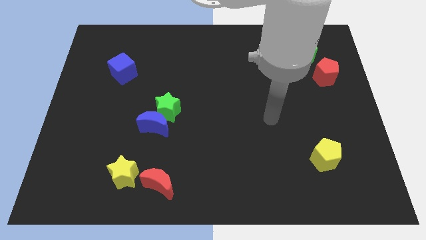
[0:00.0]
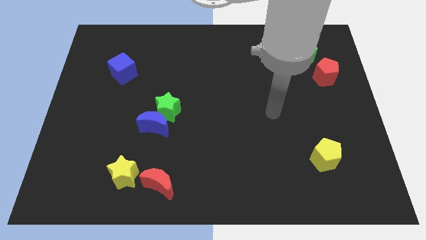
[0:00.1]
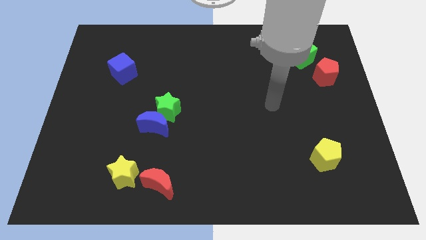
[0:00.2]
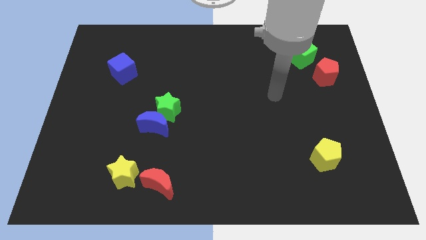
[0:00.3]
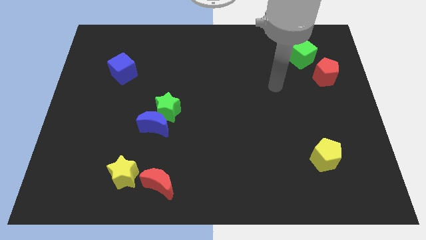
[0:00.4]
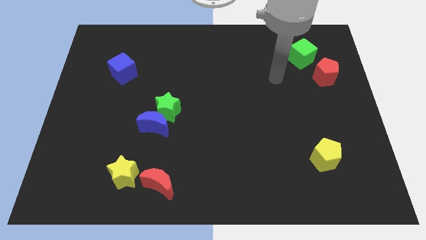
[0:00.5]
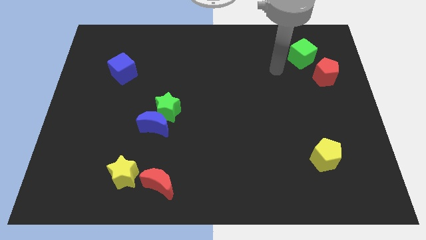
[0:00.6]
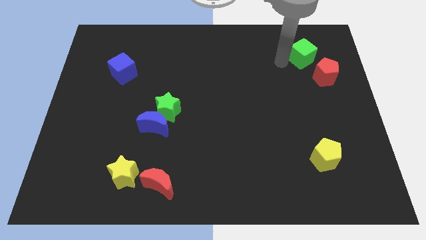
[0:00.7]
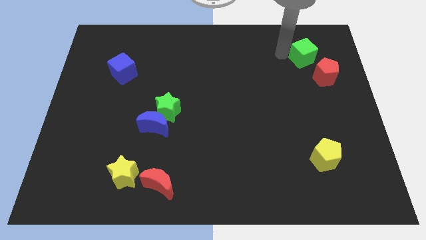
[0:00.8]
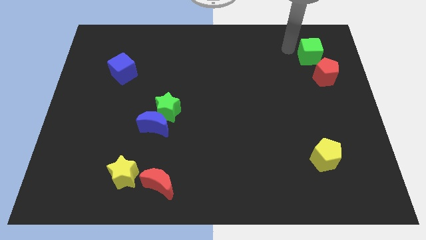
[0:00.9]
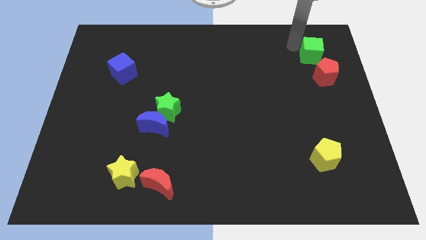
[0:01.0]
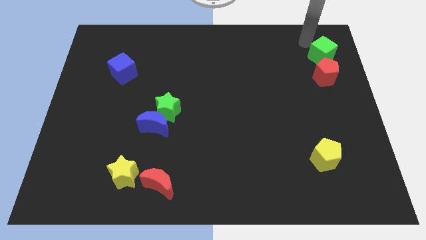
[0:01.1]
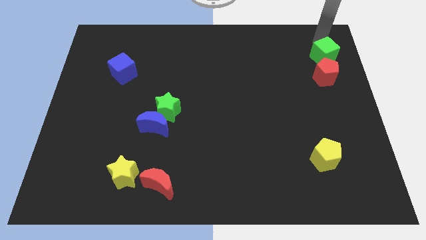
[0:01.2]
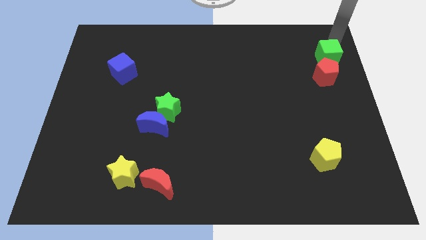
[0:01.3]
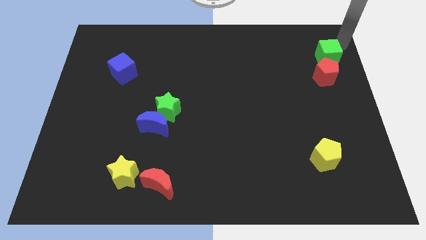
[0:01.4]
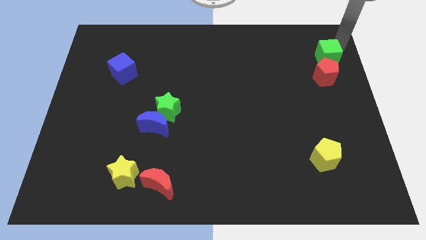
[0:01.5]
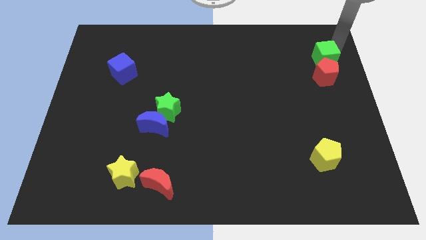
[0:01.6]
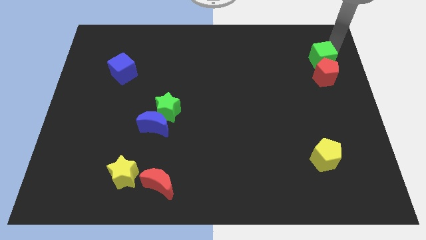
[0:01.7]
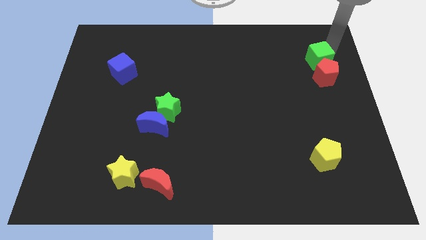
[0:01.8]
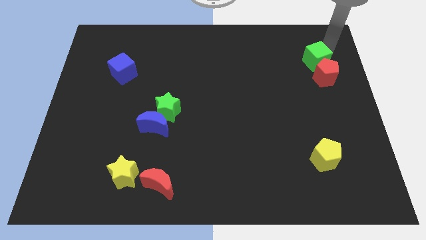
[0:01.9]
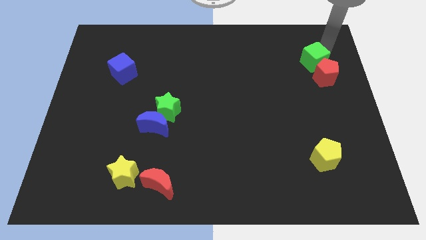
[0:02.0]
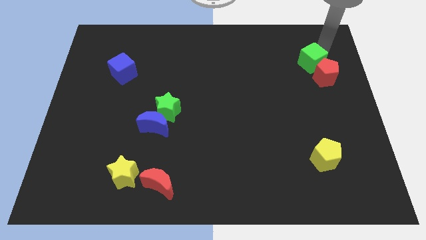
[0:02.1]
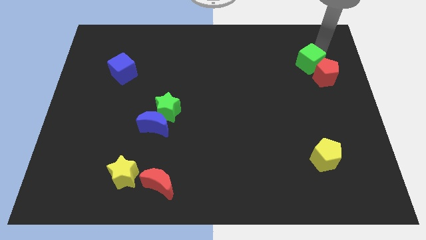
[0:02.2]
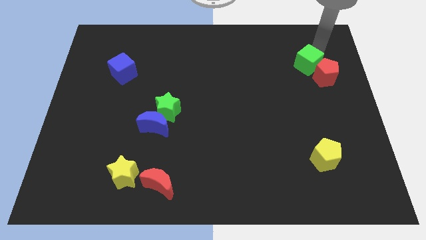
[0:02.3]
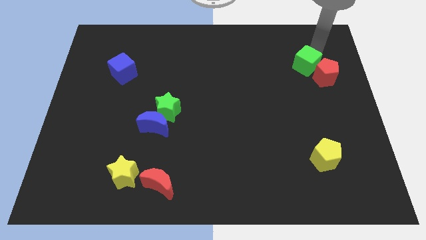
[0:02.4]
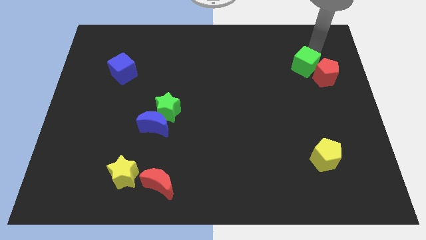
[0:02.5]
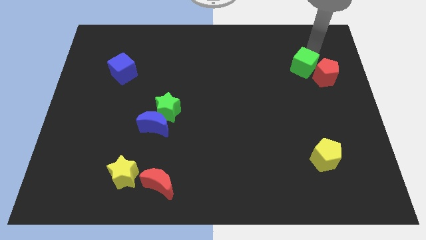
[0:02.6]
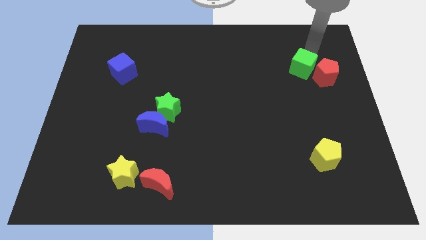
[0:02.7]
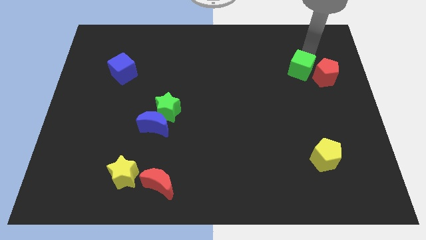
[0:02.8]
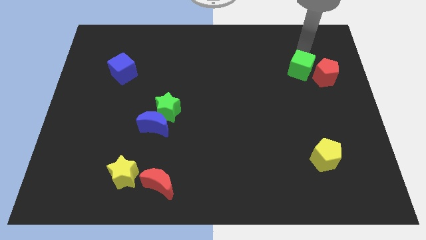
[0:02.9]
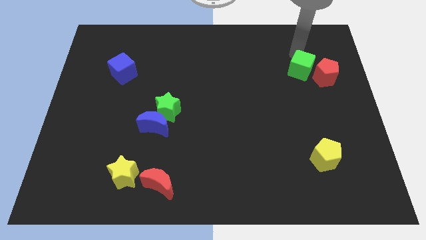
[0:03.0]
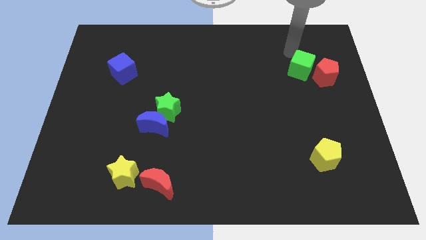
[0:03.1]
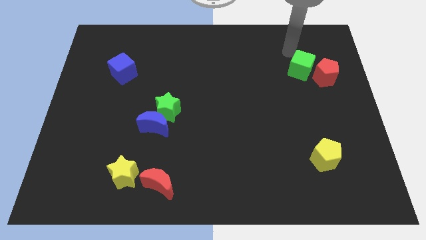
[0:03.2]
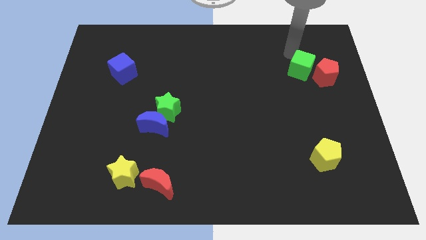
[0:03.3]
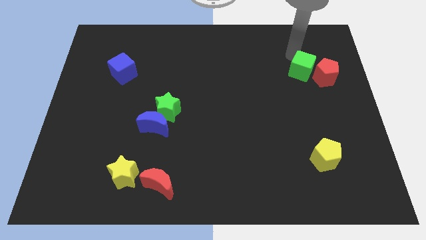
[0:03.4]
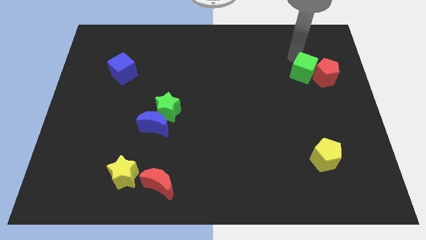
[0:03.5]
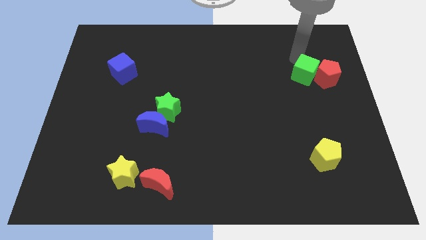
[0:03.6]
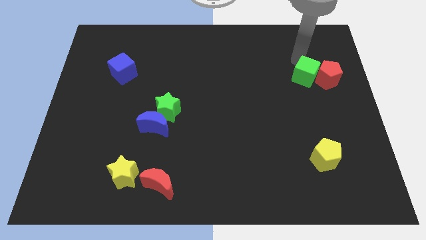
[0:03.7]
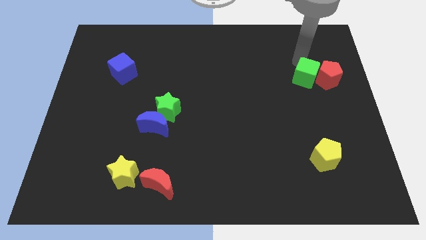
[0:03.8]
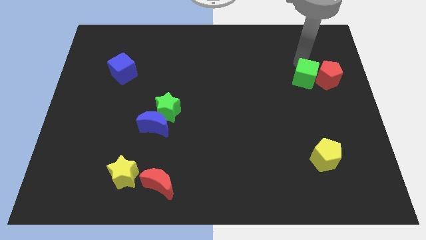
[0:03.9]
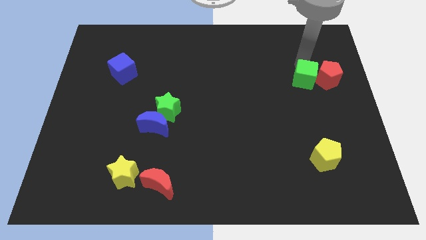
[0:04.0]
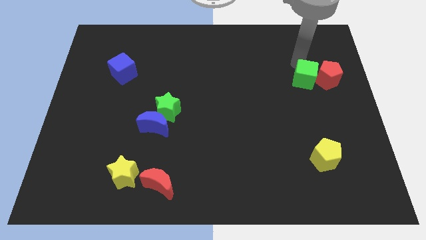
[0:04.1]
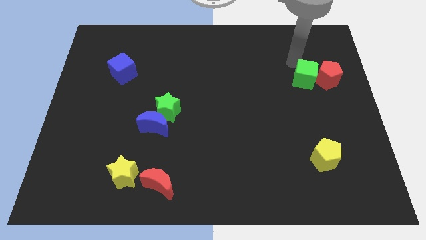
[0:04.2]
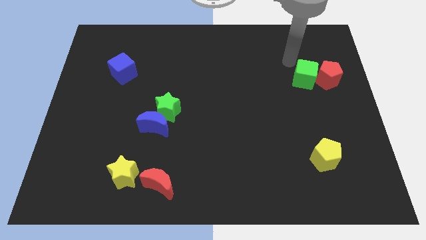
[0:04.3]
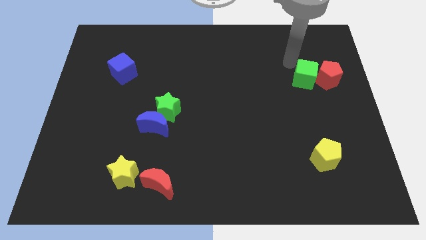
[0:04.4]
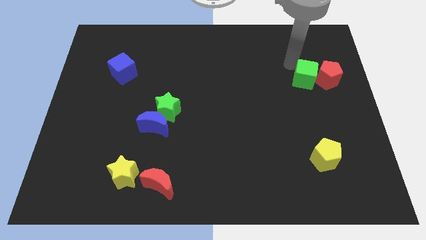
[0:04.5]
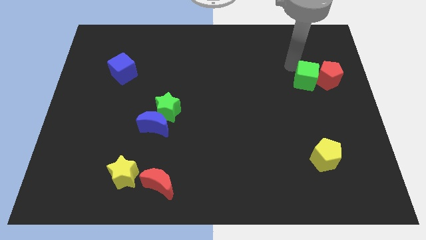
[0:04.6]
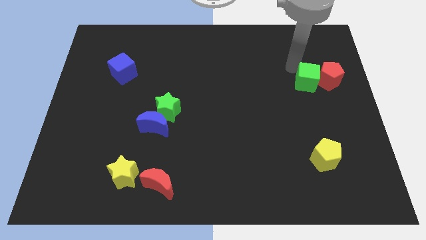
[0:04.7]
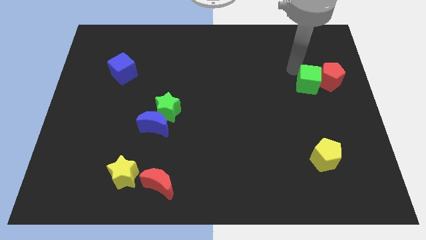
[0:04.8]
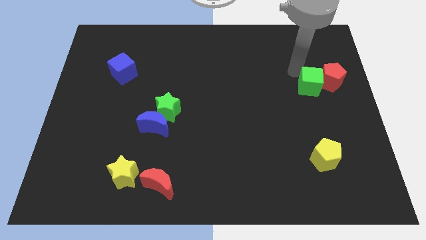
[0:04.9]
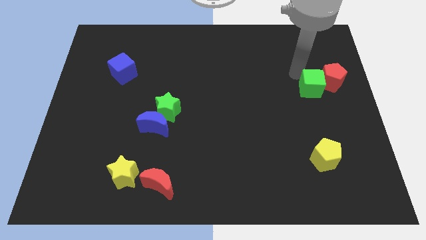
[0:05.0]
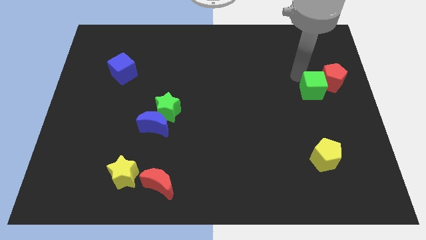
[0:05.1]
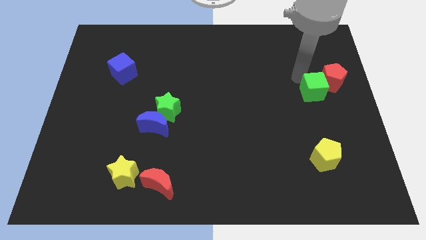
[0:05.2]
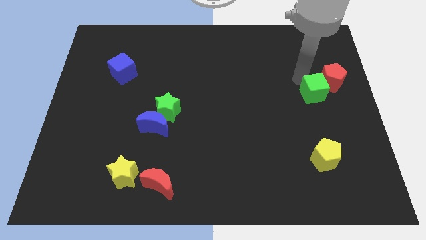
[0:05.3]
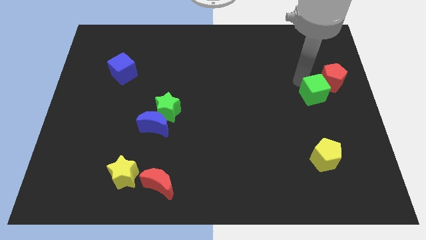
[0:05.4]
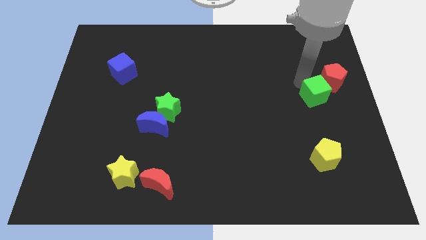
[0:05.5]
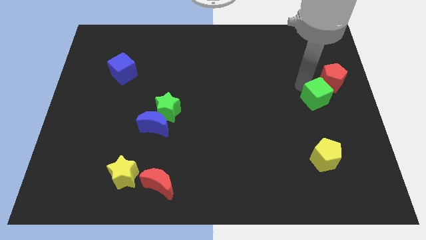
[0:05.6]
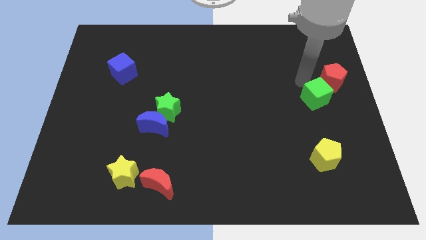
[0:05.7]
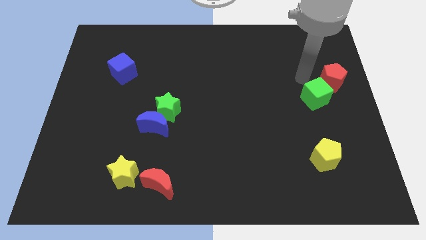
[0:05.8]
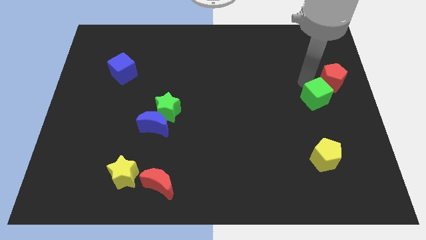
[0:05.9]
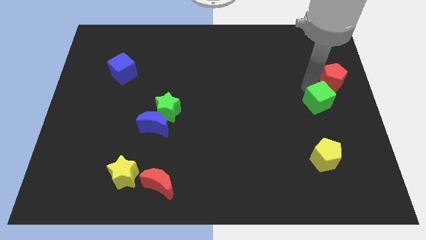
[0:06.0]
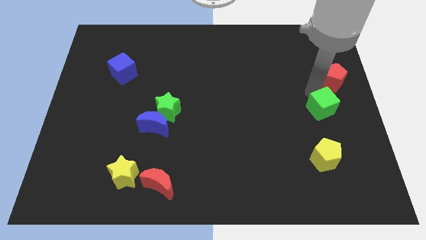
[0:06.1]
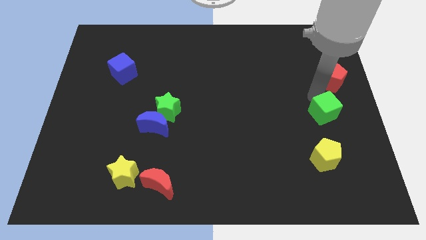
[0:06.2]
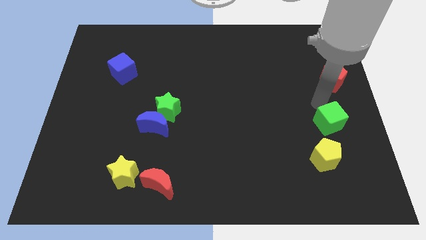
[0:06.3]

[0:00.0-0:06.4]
slide the green cube diagonally up and to the right of the yellow pentagon

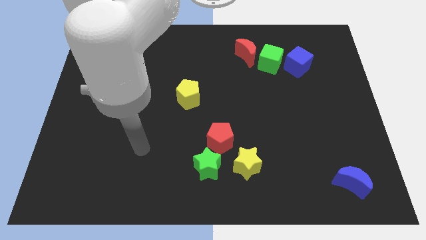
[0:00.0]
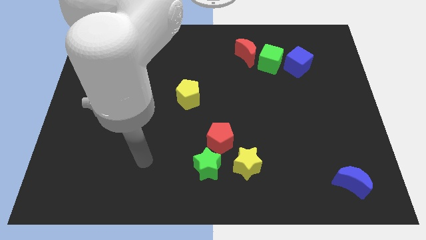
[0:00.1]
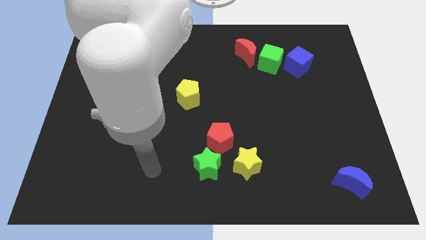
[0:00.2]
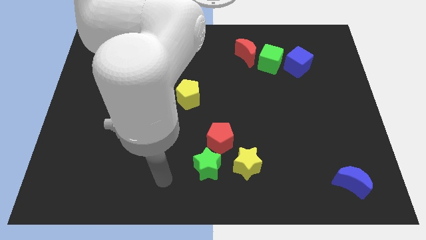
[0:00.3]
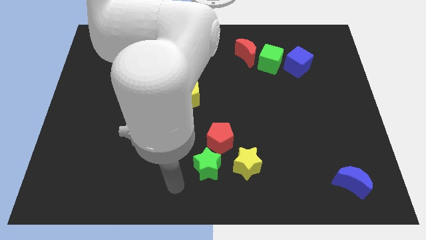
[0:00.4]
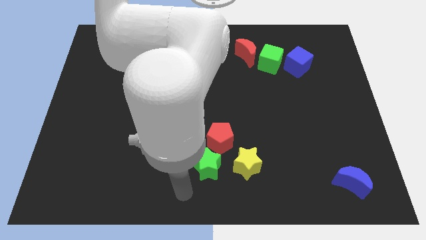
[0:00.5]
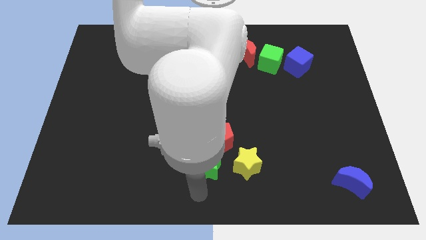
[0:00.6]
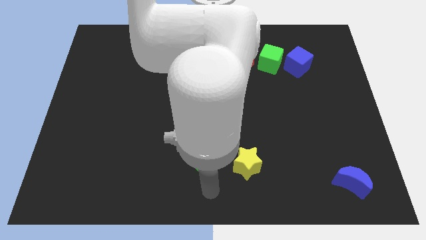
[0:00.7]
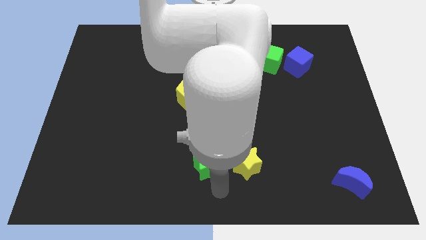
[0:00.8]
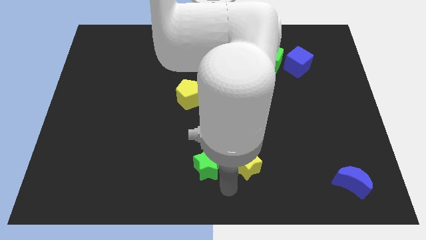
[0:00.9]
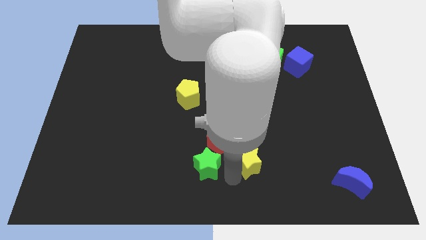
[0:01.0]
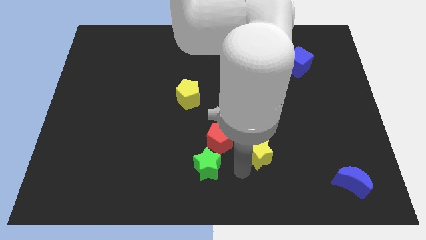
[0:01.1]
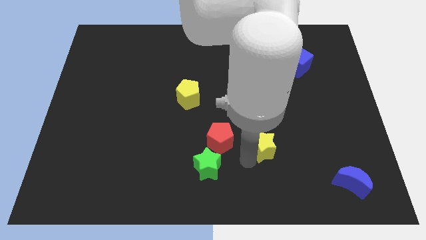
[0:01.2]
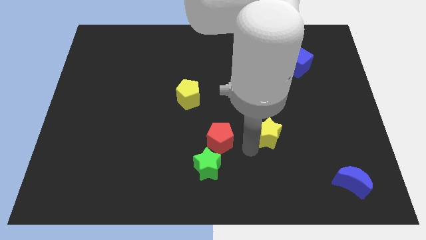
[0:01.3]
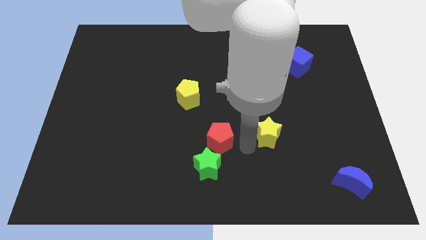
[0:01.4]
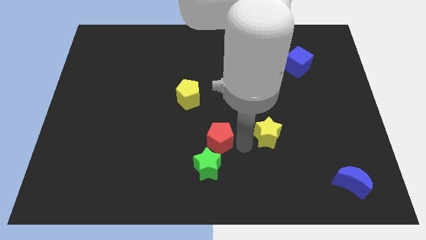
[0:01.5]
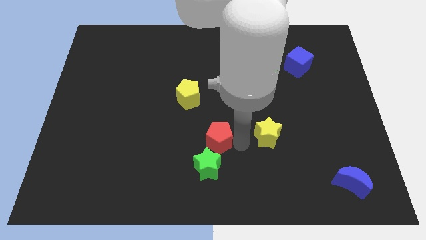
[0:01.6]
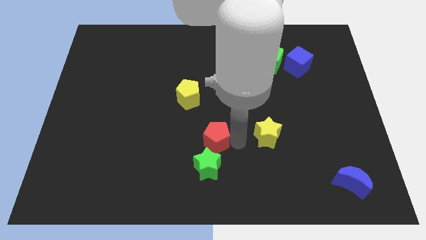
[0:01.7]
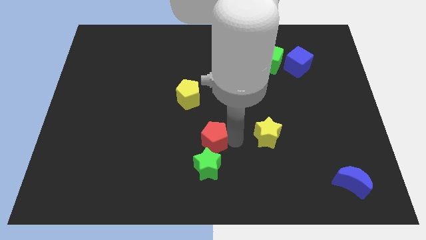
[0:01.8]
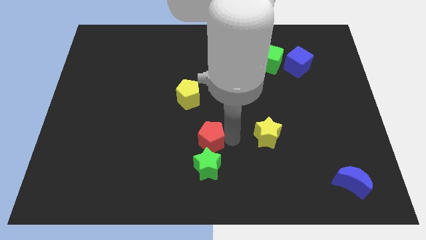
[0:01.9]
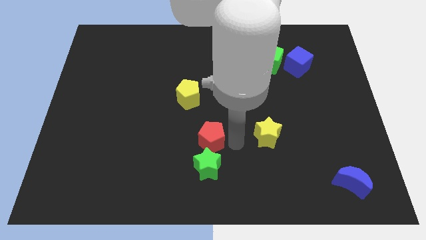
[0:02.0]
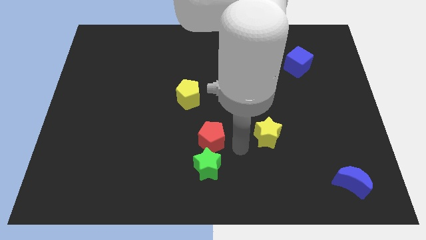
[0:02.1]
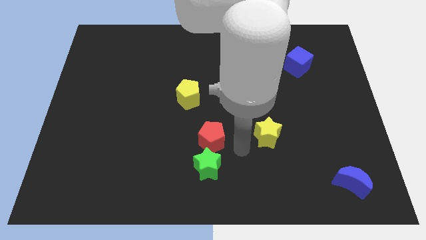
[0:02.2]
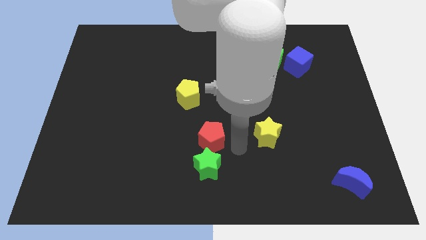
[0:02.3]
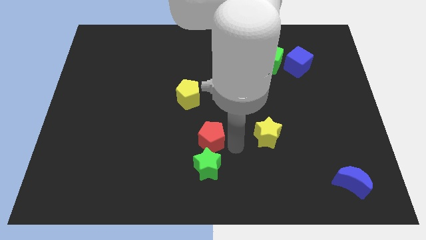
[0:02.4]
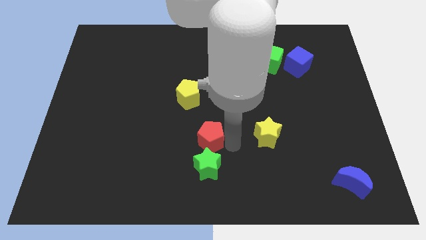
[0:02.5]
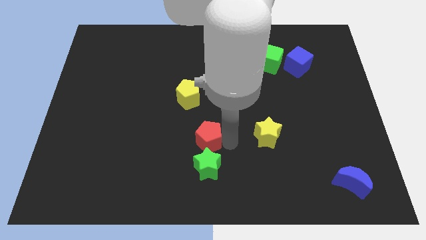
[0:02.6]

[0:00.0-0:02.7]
put the red pentagon to the bottom side of the yellow pentagon
